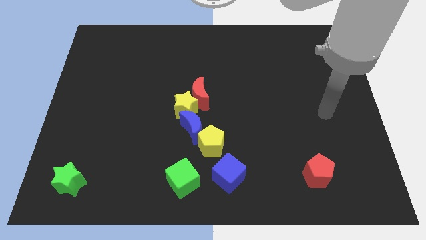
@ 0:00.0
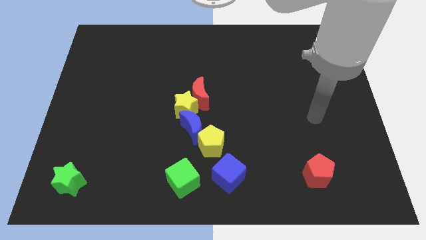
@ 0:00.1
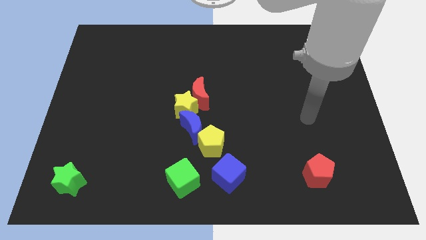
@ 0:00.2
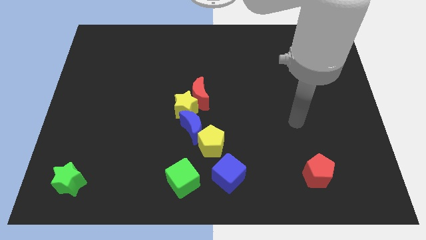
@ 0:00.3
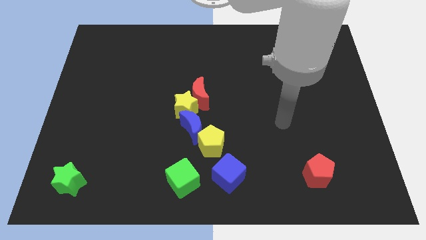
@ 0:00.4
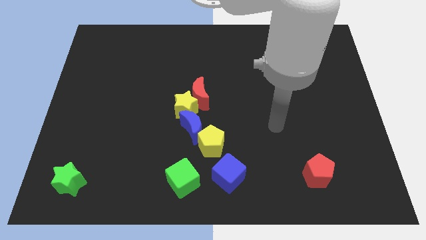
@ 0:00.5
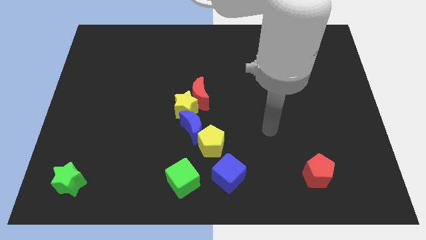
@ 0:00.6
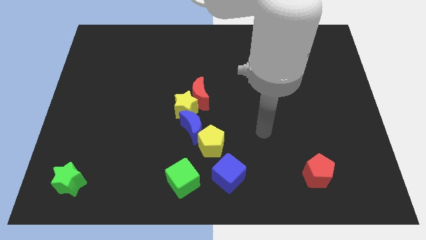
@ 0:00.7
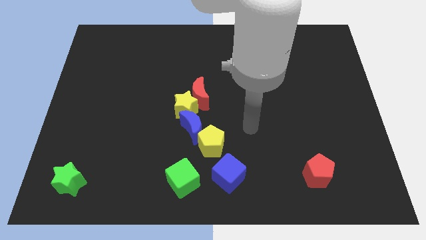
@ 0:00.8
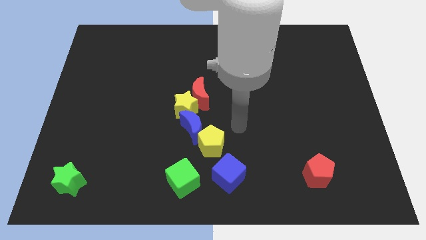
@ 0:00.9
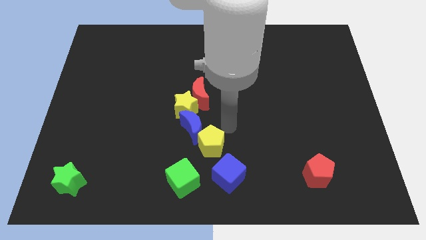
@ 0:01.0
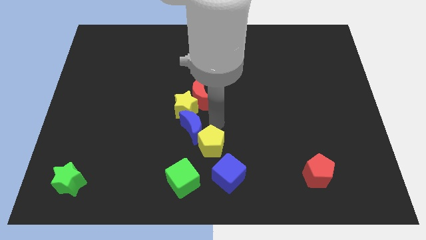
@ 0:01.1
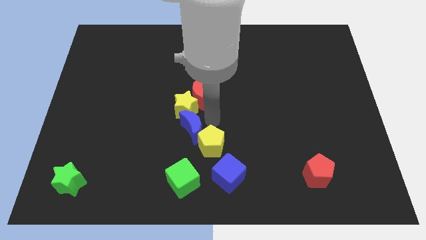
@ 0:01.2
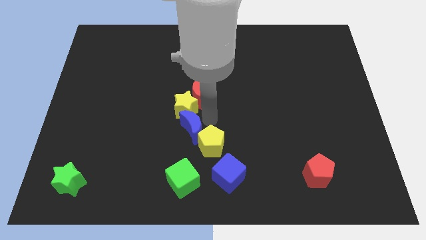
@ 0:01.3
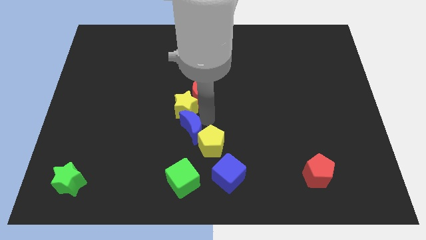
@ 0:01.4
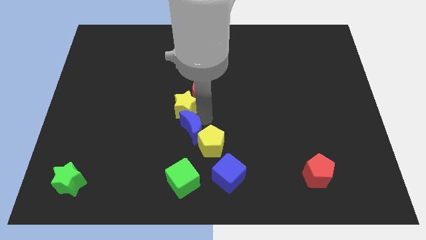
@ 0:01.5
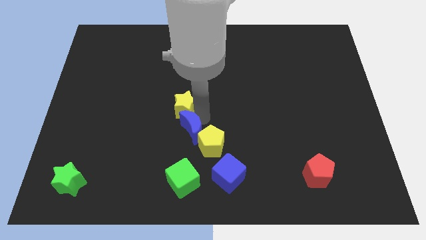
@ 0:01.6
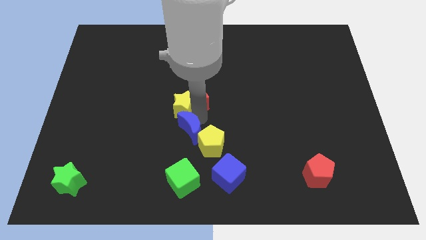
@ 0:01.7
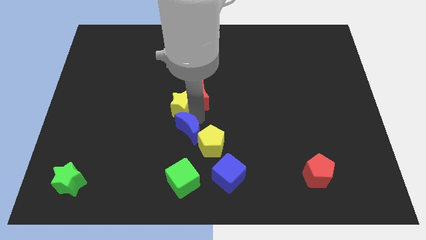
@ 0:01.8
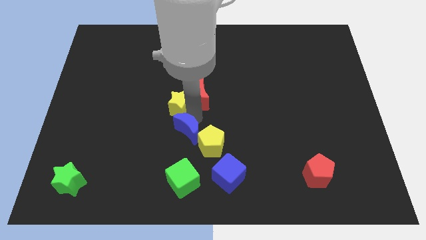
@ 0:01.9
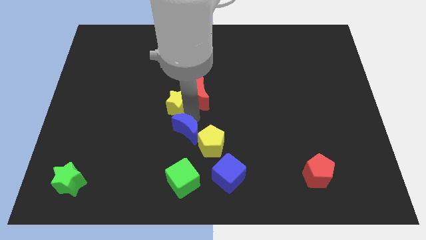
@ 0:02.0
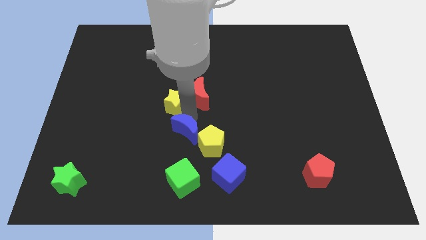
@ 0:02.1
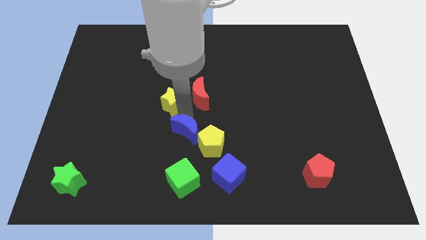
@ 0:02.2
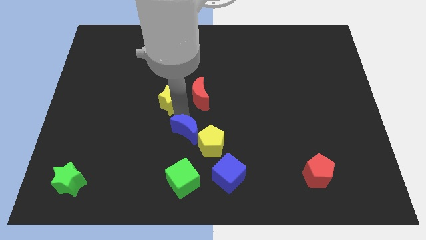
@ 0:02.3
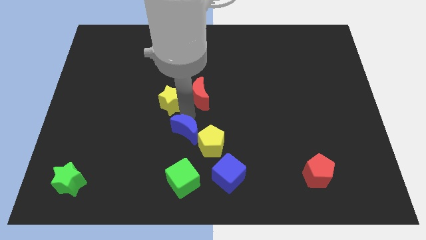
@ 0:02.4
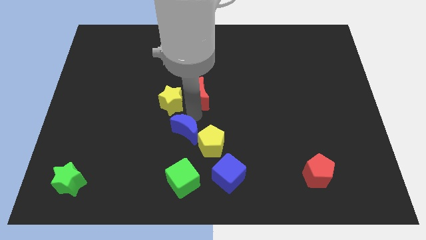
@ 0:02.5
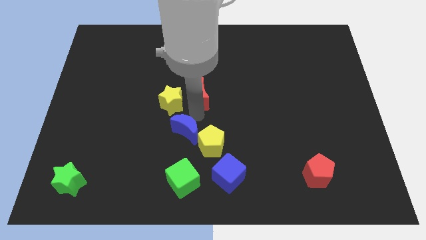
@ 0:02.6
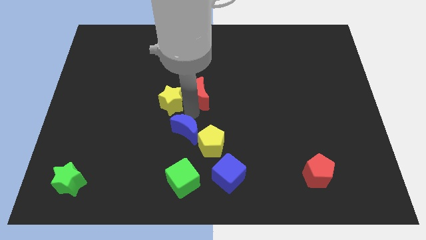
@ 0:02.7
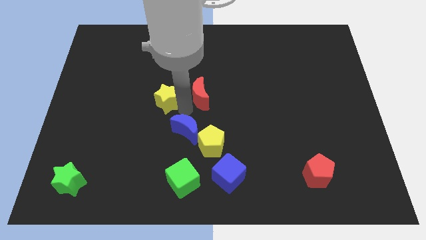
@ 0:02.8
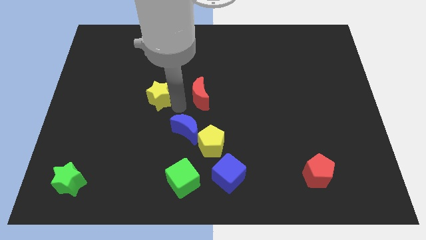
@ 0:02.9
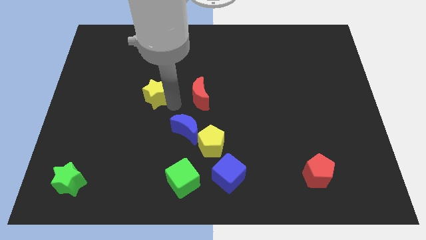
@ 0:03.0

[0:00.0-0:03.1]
move the yellow star away from the red moon and blue moon

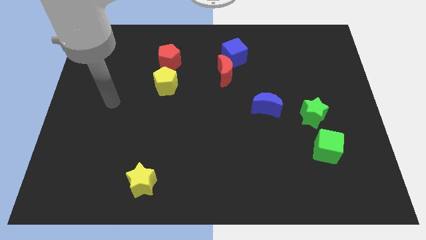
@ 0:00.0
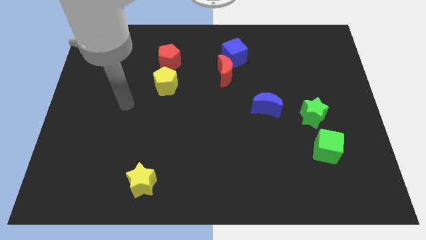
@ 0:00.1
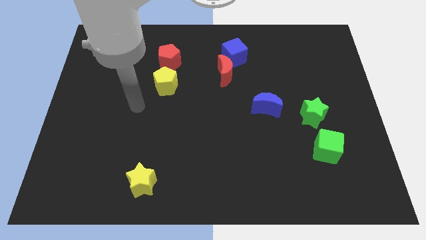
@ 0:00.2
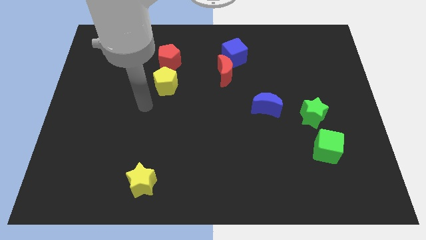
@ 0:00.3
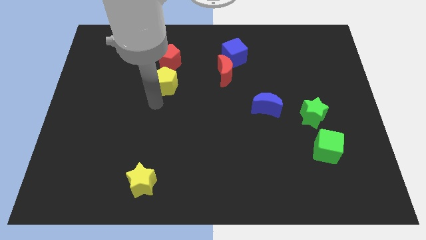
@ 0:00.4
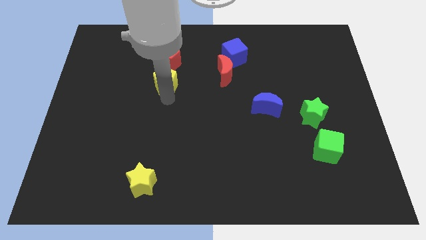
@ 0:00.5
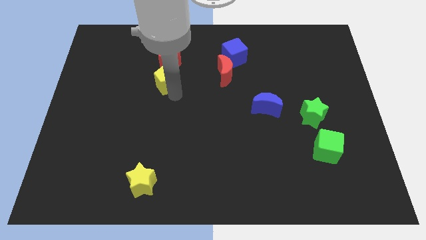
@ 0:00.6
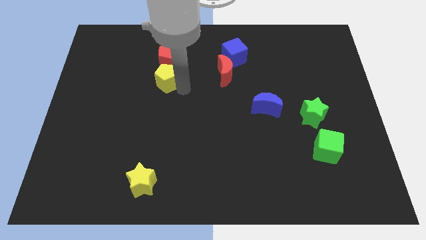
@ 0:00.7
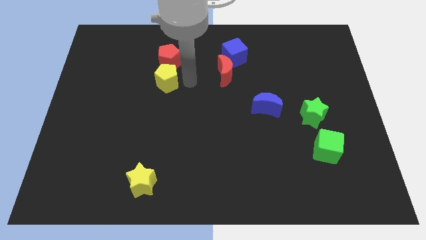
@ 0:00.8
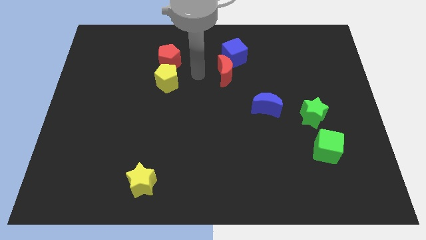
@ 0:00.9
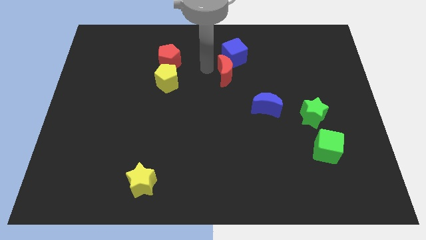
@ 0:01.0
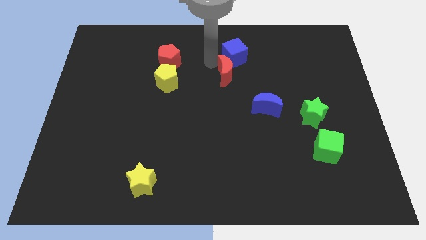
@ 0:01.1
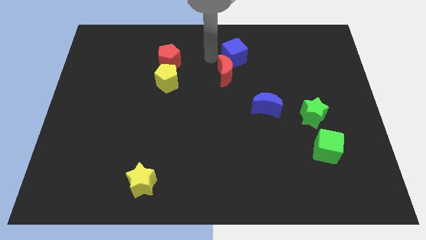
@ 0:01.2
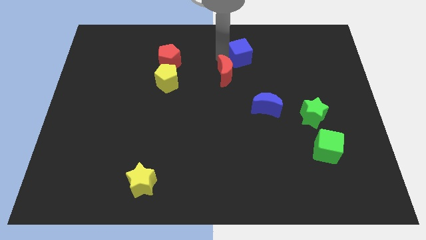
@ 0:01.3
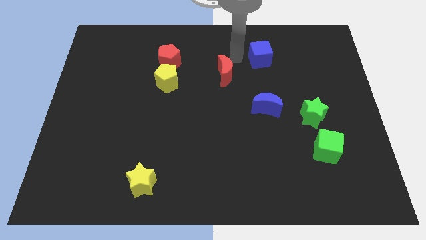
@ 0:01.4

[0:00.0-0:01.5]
separate the red moon from the blue cube

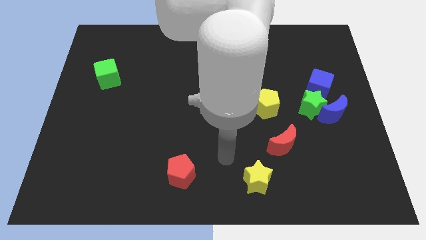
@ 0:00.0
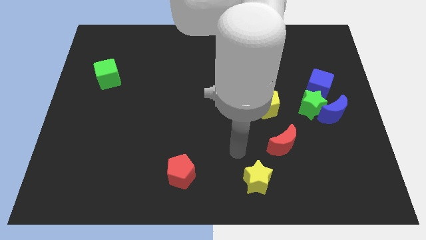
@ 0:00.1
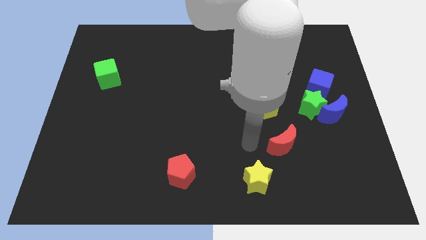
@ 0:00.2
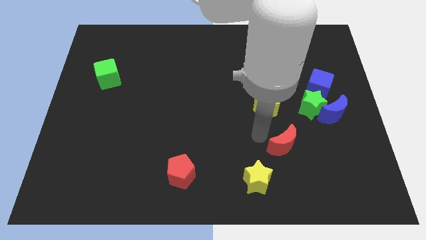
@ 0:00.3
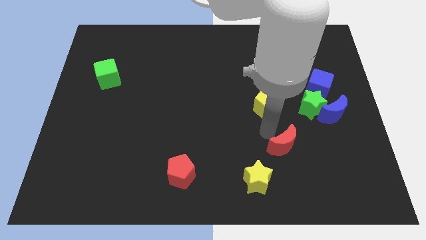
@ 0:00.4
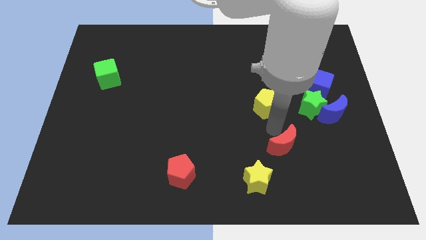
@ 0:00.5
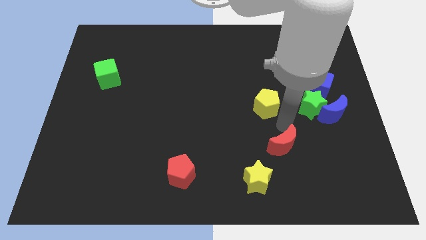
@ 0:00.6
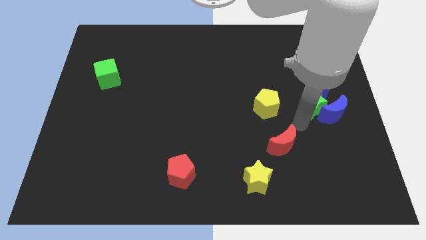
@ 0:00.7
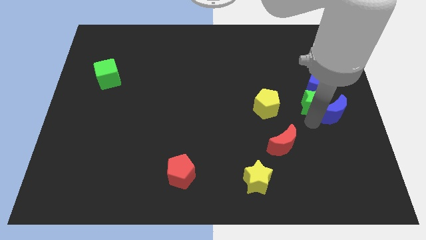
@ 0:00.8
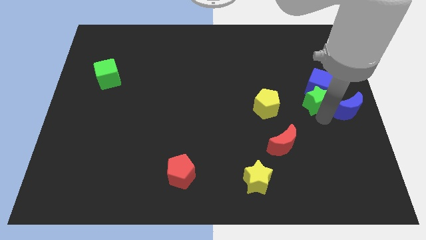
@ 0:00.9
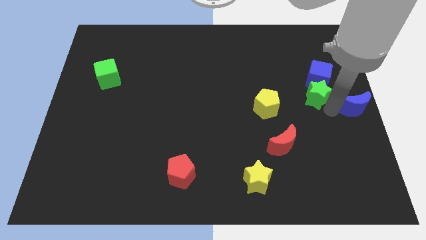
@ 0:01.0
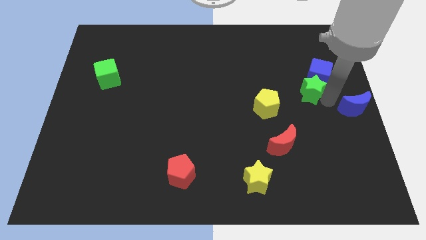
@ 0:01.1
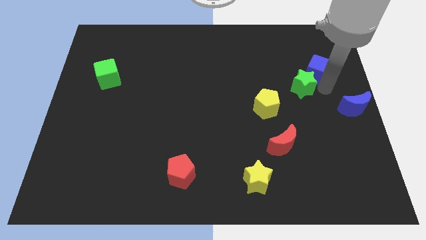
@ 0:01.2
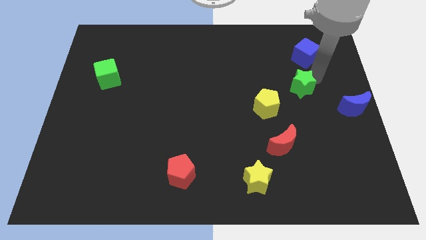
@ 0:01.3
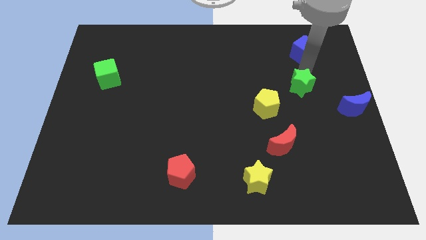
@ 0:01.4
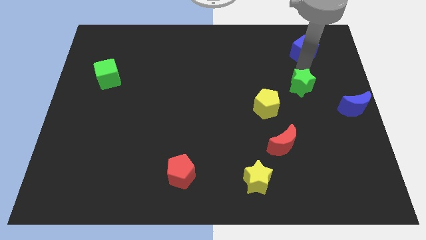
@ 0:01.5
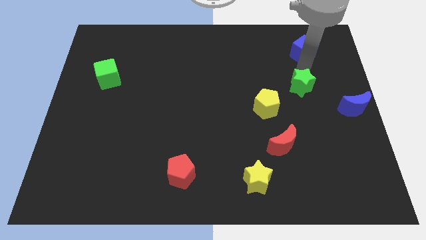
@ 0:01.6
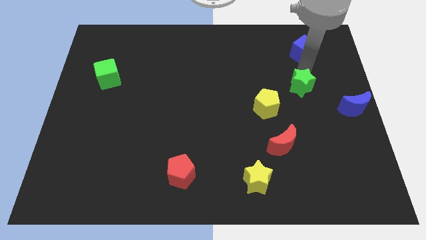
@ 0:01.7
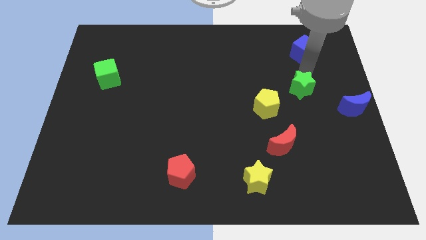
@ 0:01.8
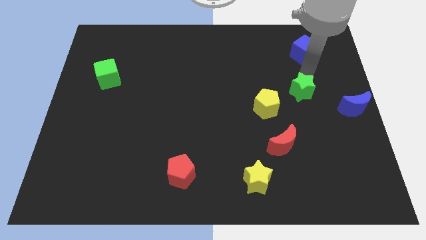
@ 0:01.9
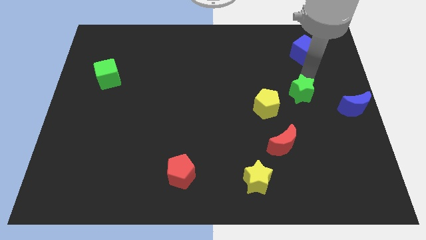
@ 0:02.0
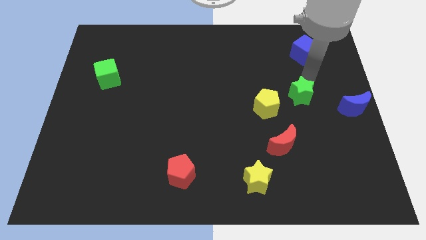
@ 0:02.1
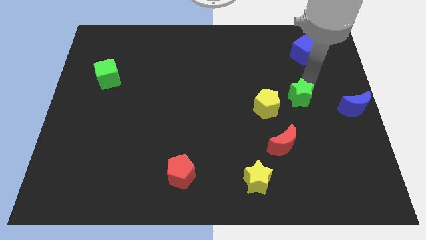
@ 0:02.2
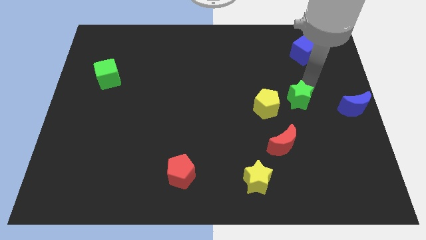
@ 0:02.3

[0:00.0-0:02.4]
move the green star away from the blue moon and blue cube

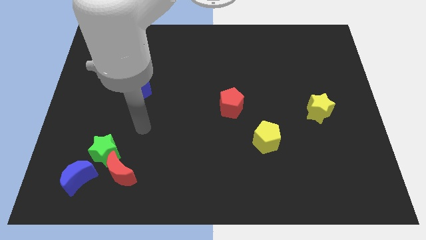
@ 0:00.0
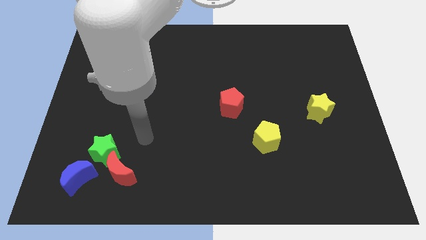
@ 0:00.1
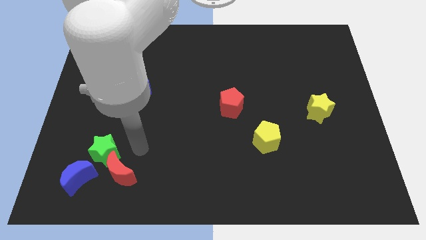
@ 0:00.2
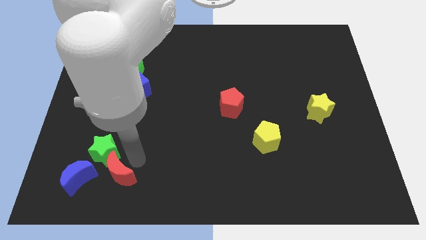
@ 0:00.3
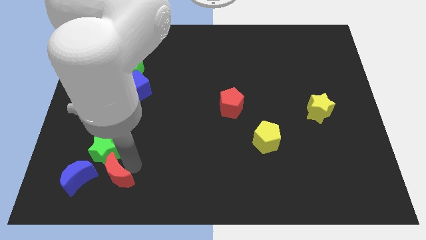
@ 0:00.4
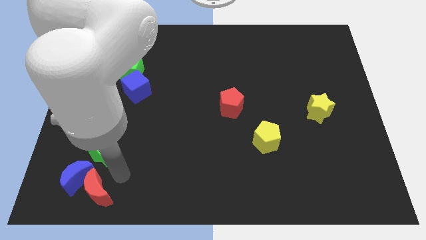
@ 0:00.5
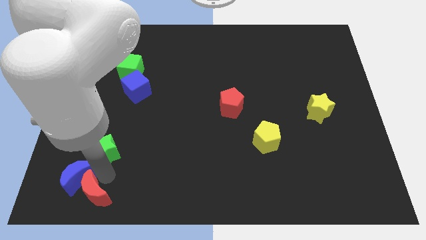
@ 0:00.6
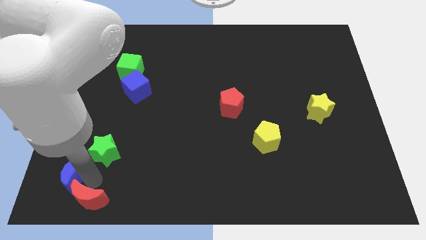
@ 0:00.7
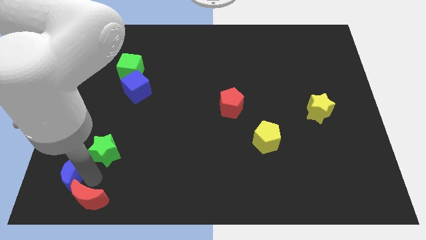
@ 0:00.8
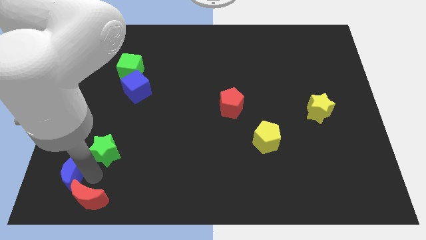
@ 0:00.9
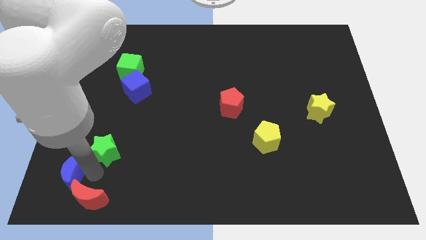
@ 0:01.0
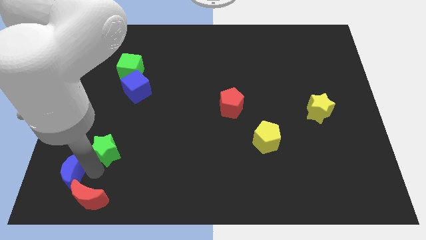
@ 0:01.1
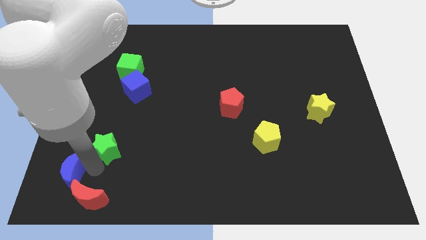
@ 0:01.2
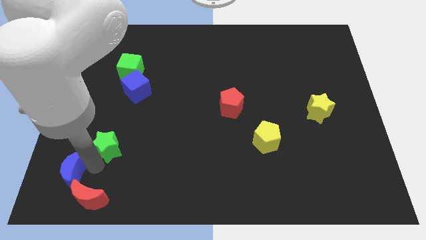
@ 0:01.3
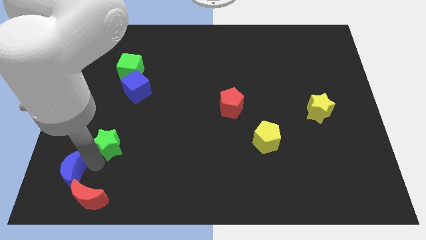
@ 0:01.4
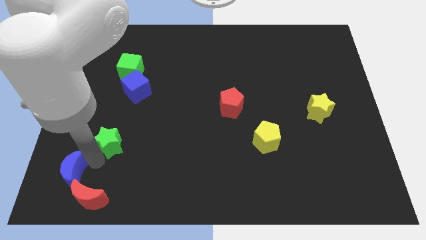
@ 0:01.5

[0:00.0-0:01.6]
pull the green star apart from the red moon and blue moon

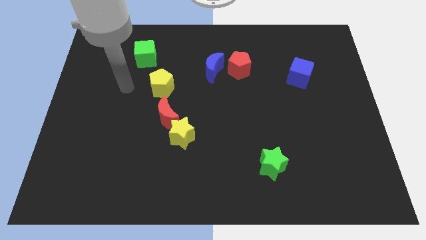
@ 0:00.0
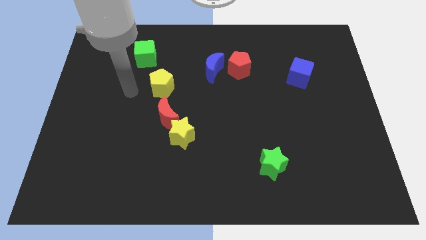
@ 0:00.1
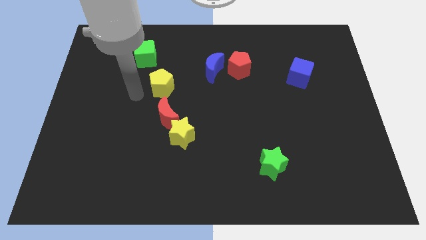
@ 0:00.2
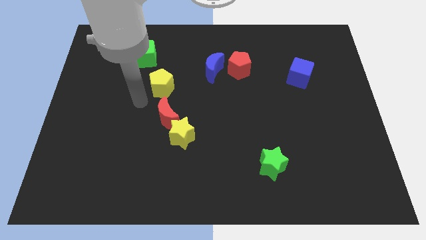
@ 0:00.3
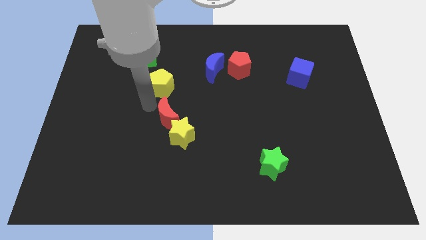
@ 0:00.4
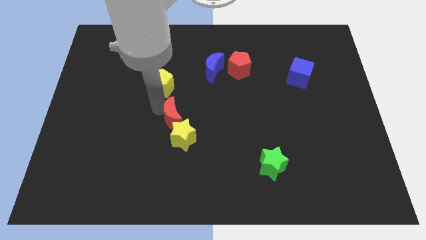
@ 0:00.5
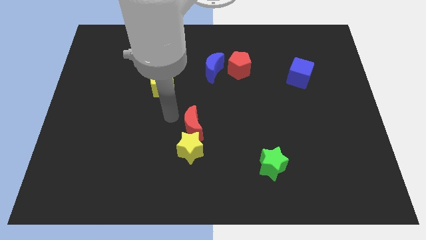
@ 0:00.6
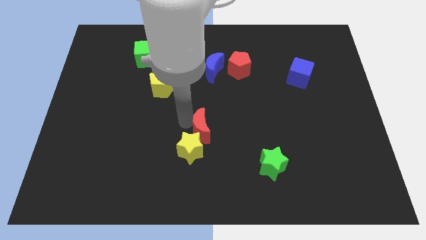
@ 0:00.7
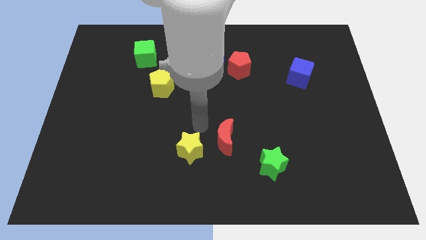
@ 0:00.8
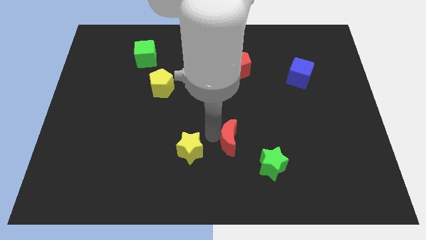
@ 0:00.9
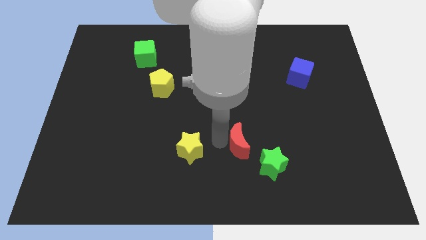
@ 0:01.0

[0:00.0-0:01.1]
separate the yellow star from the red moon
